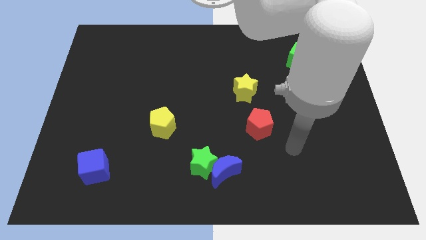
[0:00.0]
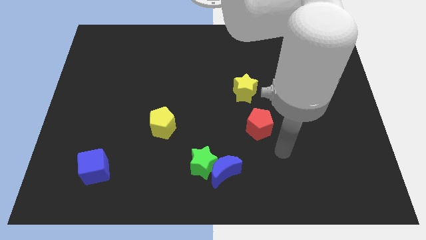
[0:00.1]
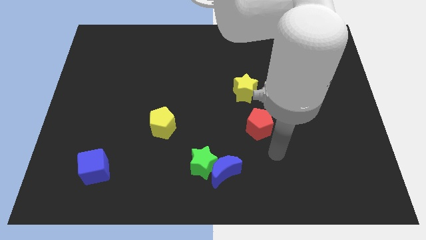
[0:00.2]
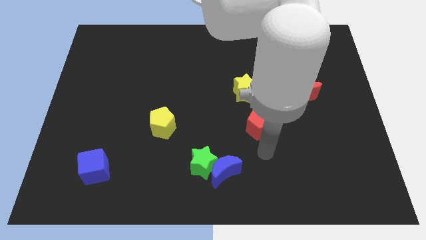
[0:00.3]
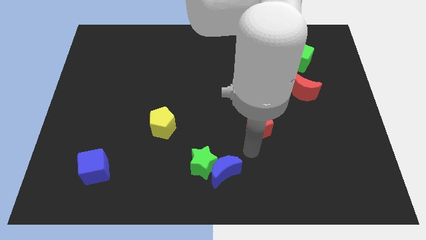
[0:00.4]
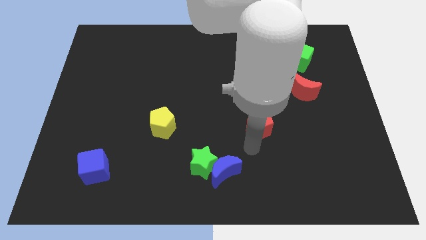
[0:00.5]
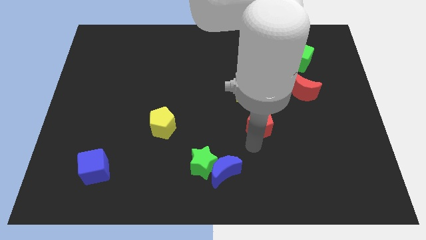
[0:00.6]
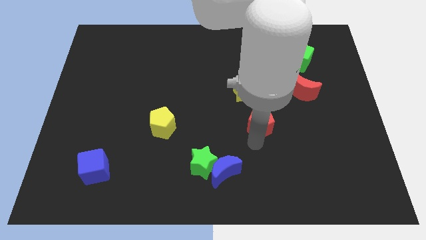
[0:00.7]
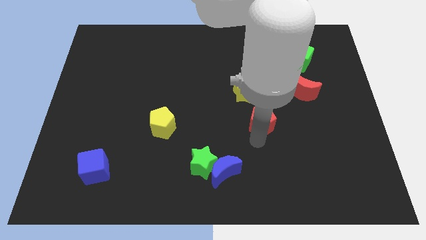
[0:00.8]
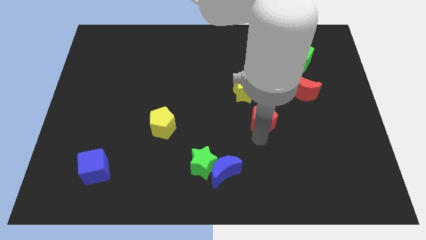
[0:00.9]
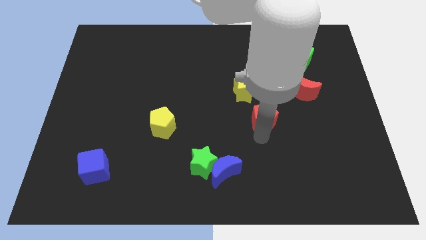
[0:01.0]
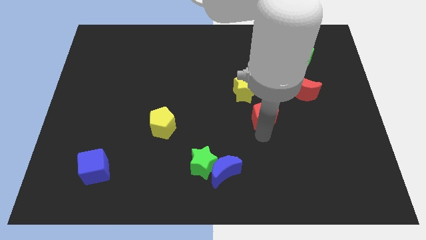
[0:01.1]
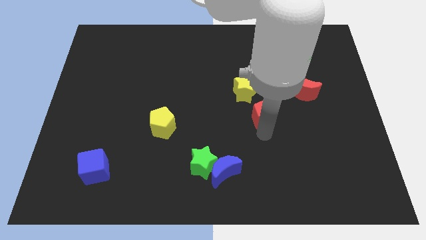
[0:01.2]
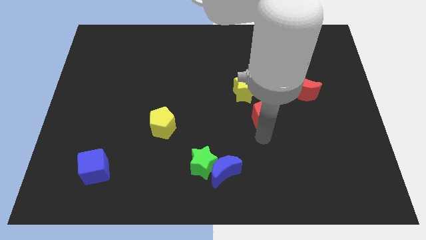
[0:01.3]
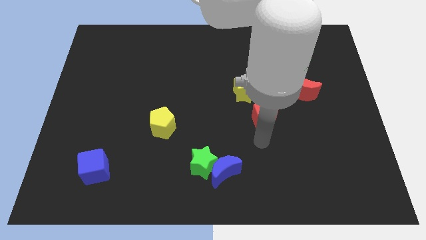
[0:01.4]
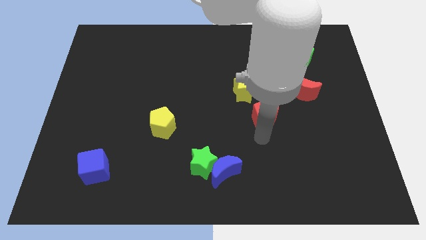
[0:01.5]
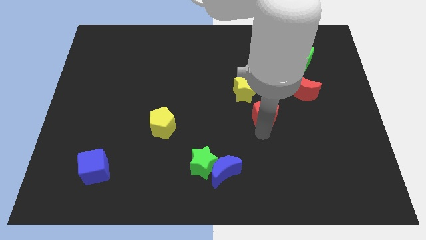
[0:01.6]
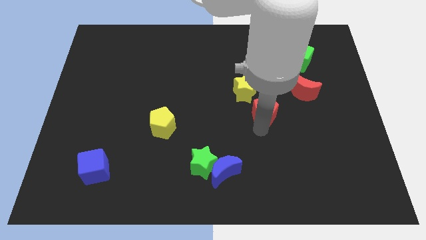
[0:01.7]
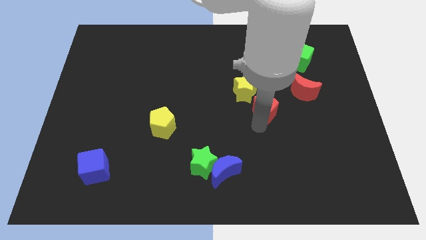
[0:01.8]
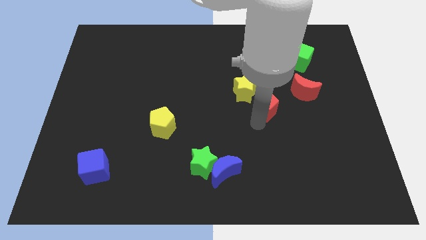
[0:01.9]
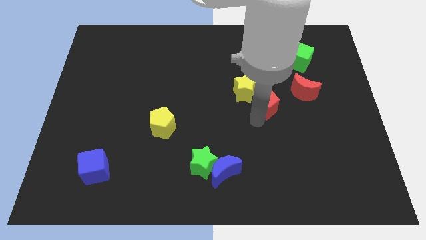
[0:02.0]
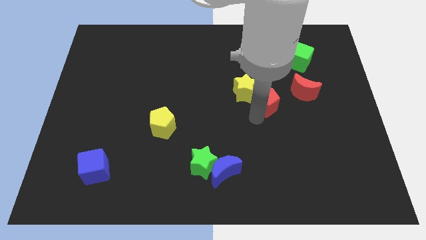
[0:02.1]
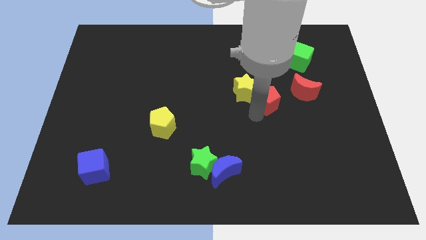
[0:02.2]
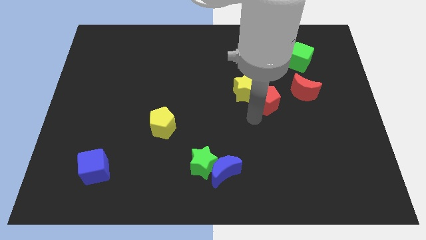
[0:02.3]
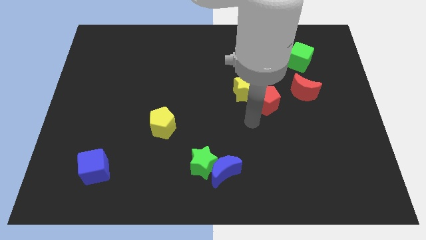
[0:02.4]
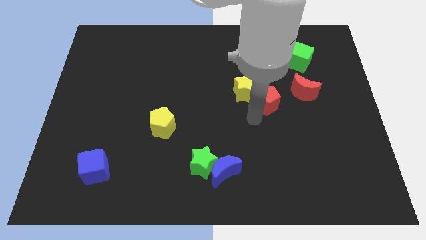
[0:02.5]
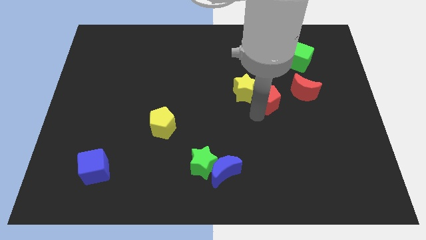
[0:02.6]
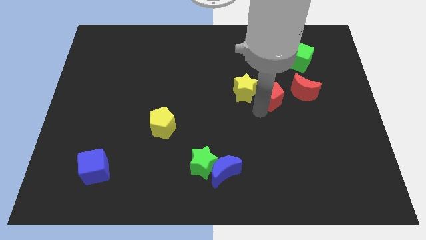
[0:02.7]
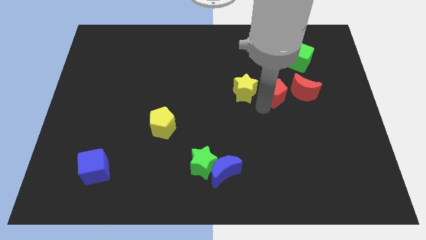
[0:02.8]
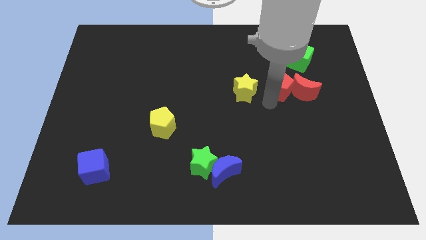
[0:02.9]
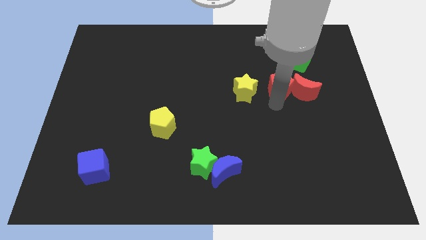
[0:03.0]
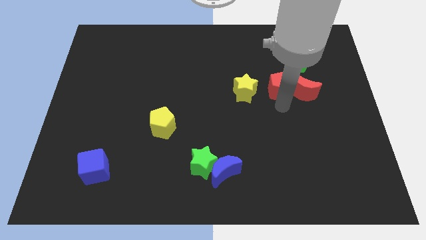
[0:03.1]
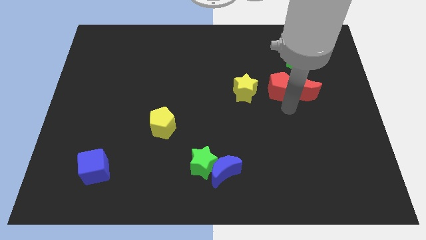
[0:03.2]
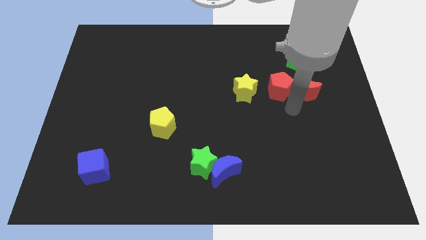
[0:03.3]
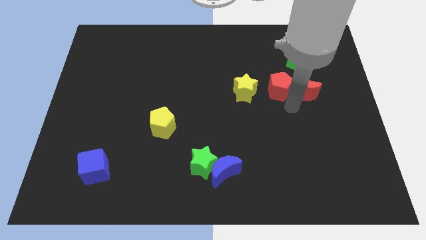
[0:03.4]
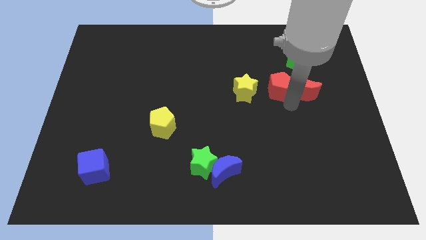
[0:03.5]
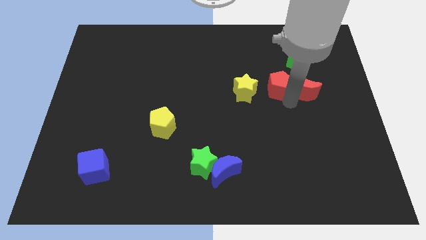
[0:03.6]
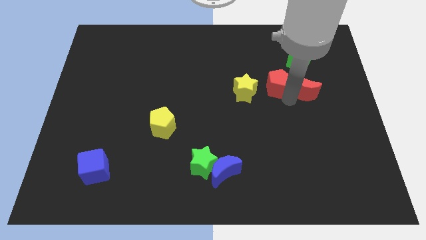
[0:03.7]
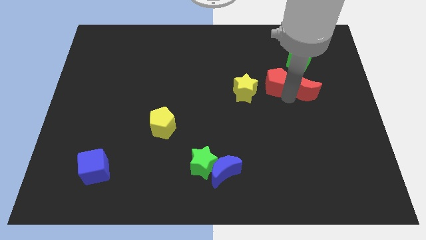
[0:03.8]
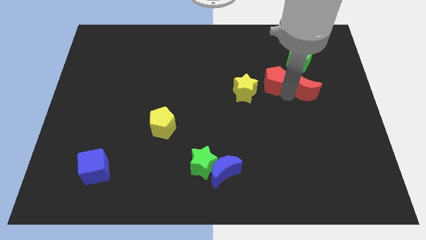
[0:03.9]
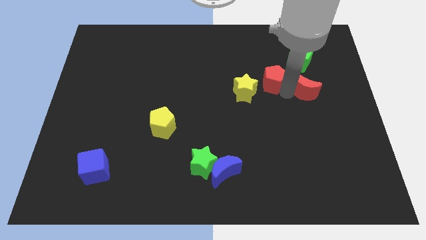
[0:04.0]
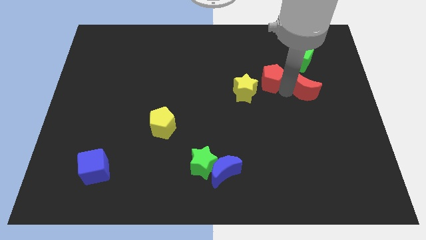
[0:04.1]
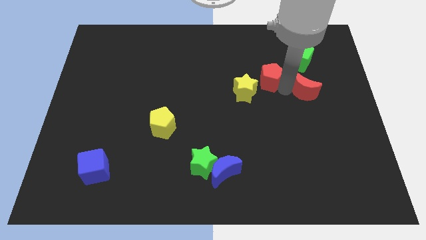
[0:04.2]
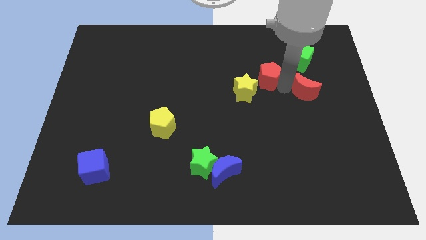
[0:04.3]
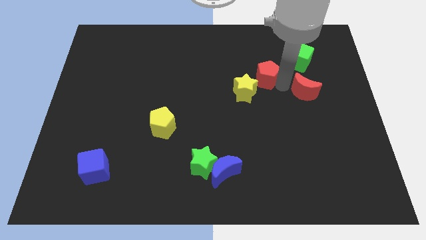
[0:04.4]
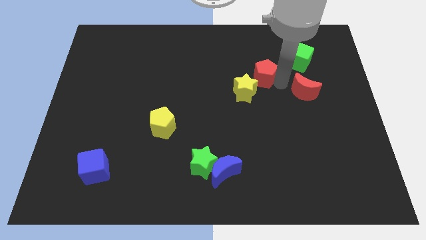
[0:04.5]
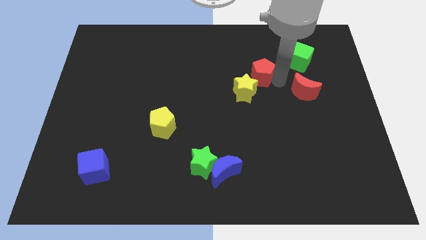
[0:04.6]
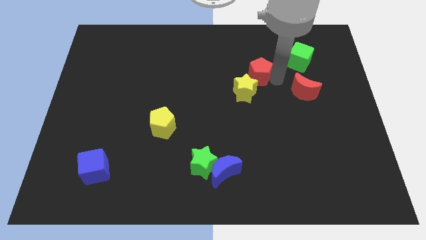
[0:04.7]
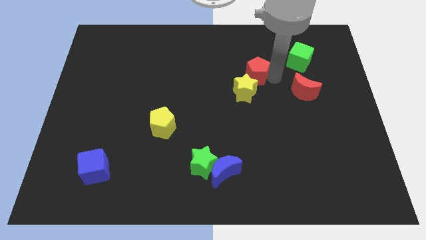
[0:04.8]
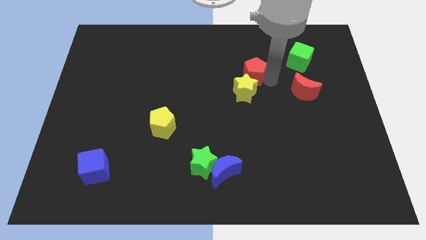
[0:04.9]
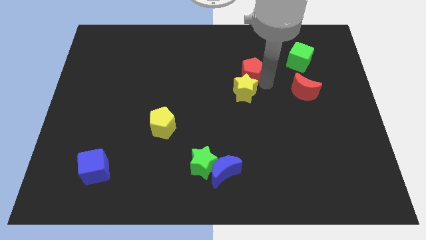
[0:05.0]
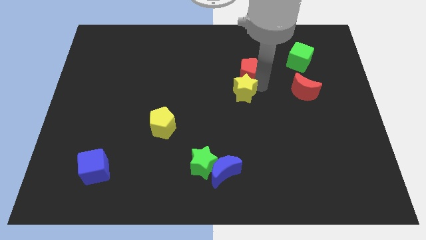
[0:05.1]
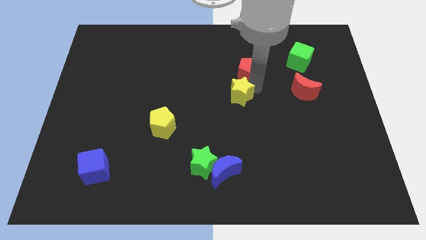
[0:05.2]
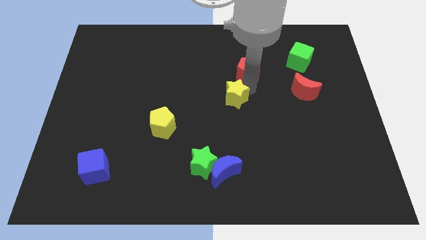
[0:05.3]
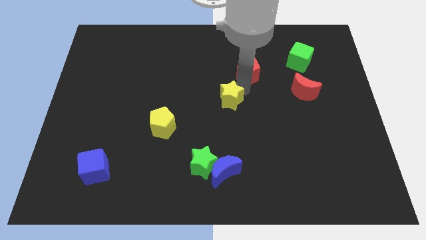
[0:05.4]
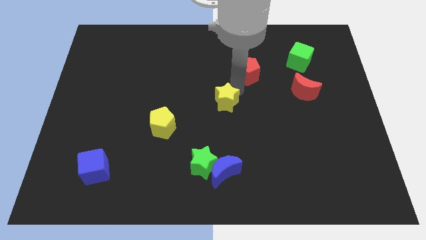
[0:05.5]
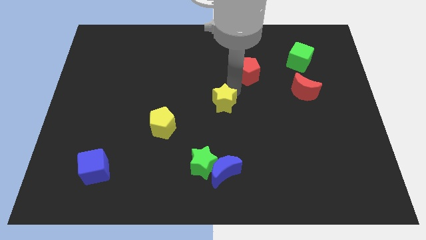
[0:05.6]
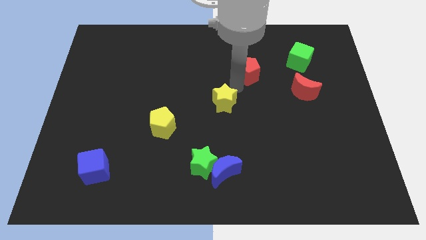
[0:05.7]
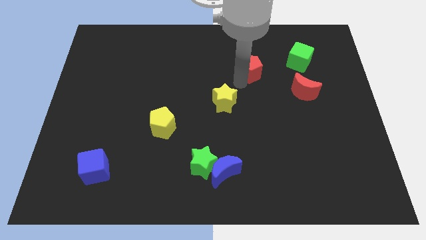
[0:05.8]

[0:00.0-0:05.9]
move the red pentagon left of the green cube

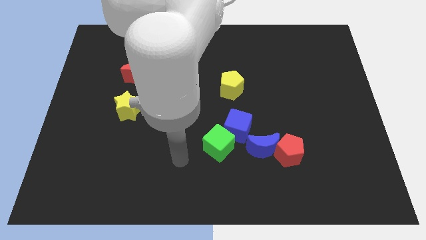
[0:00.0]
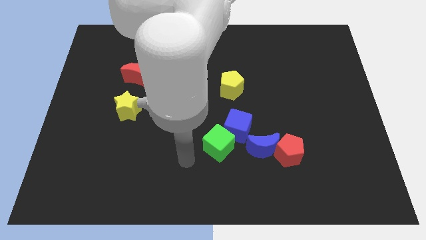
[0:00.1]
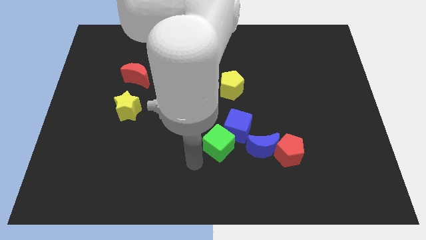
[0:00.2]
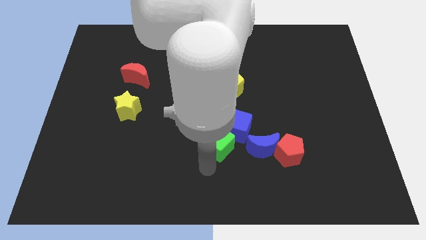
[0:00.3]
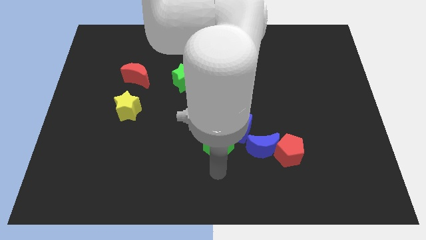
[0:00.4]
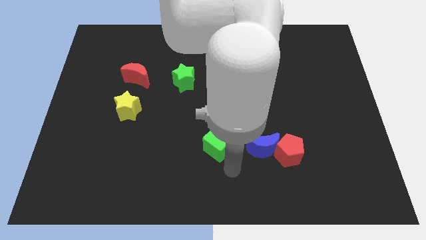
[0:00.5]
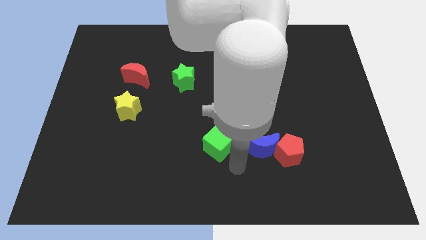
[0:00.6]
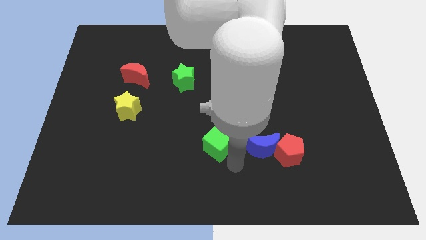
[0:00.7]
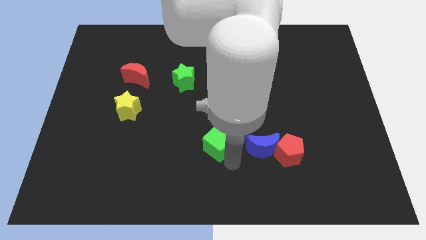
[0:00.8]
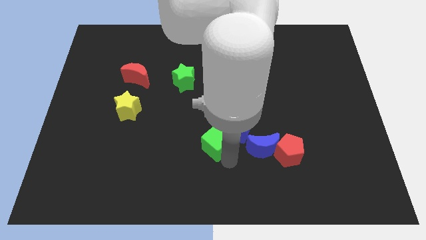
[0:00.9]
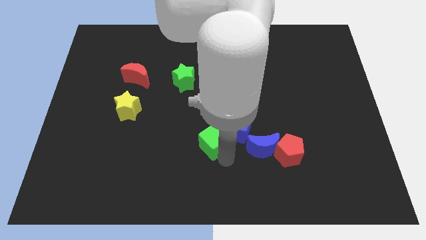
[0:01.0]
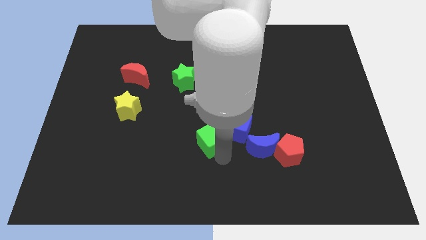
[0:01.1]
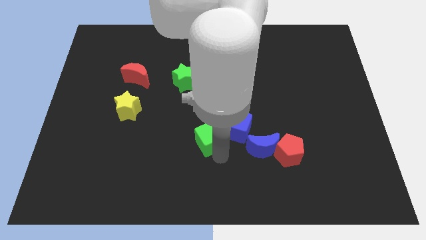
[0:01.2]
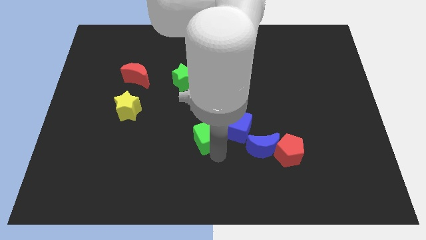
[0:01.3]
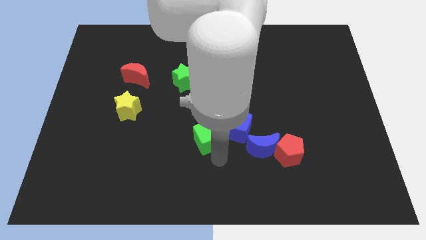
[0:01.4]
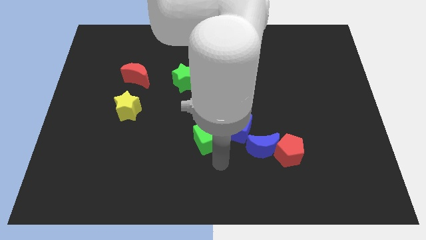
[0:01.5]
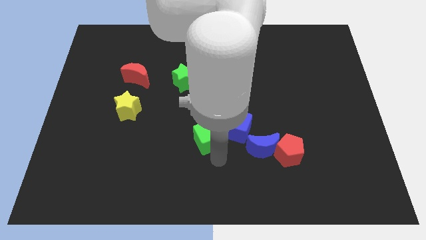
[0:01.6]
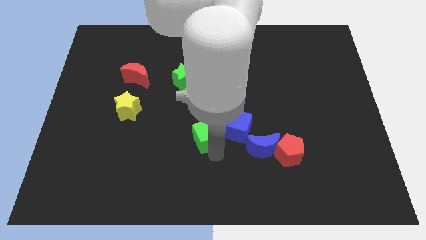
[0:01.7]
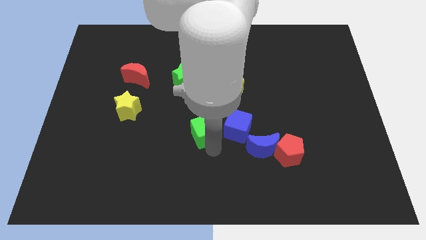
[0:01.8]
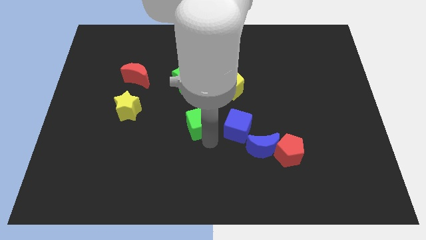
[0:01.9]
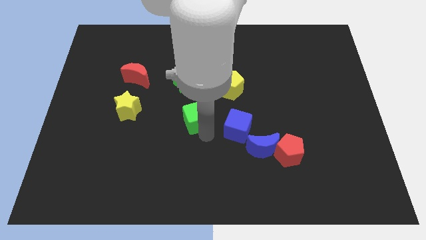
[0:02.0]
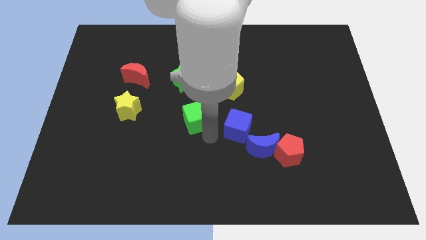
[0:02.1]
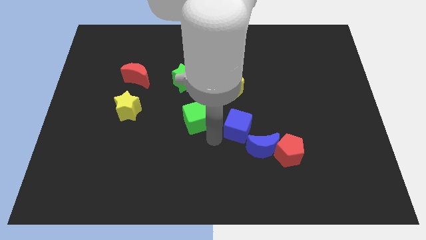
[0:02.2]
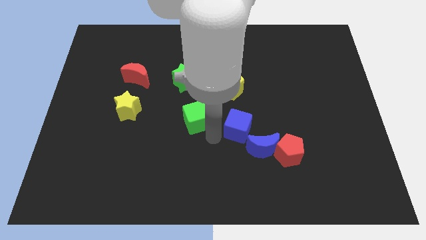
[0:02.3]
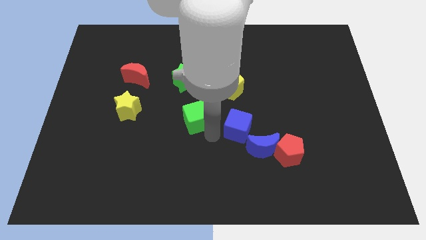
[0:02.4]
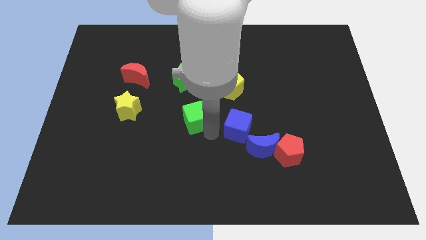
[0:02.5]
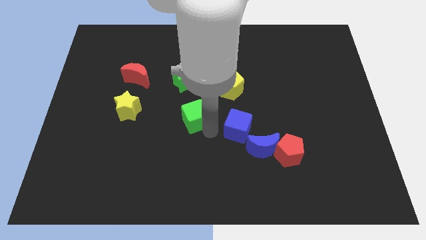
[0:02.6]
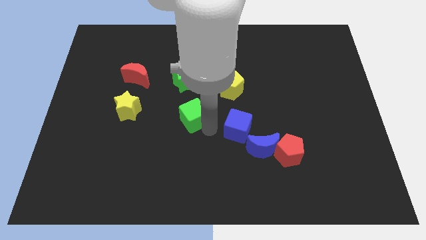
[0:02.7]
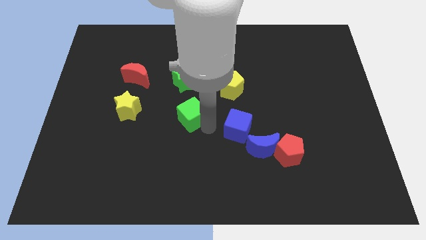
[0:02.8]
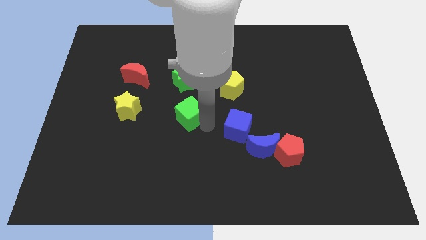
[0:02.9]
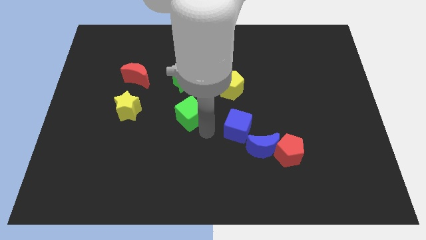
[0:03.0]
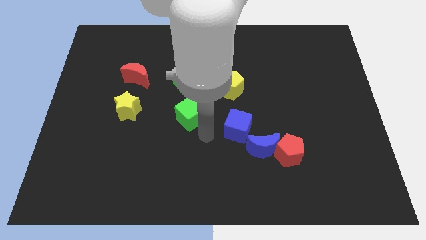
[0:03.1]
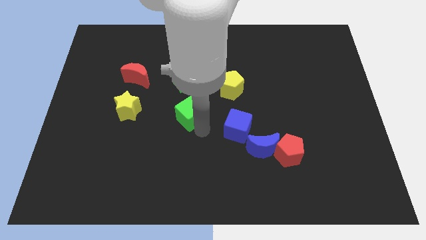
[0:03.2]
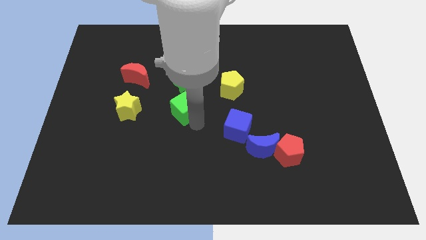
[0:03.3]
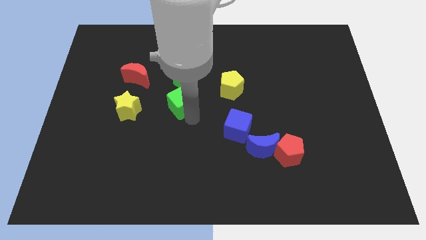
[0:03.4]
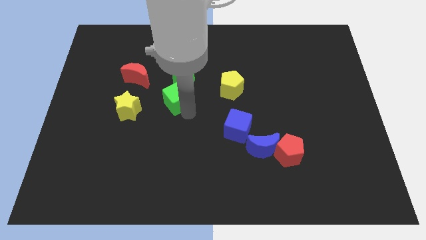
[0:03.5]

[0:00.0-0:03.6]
move the green cube just left of the yellow pentagon
